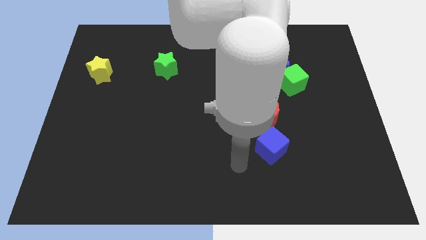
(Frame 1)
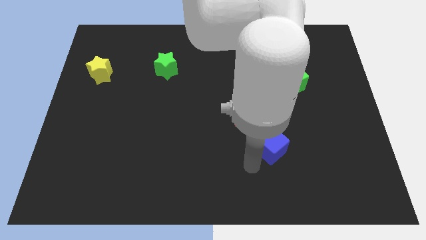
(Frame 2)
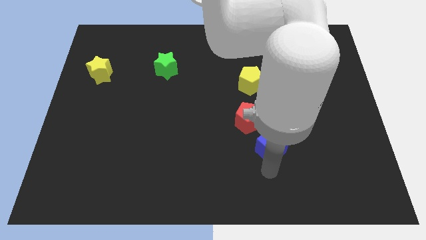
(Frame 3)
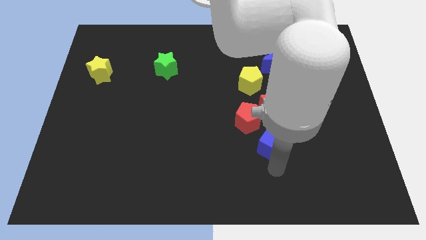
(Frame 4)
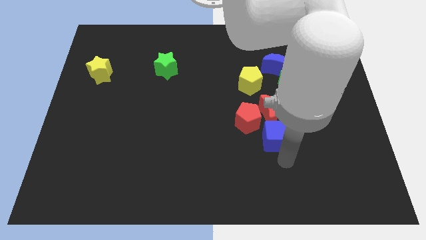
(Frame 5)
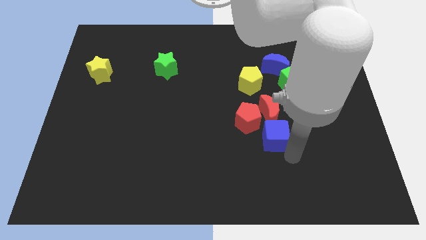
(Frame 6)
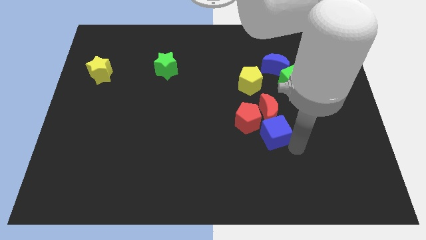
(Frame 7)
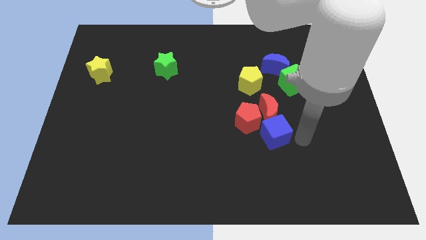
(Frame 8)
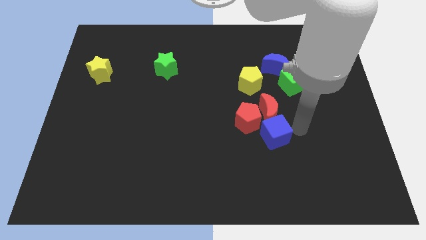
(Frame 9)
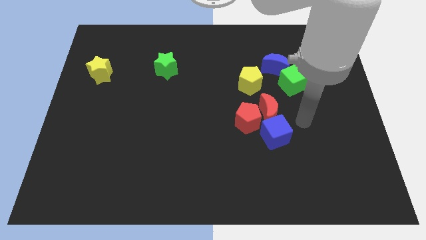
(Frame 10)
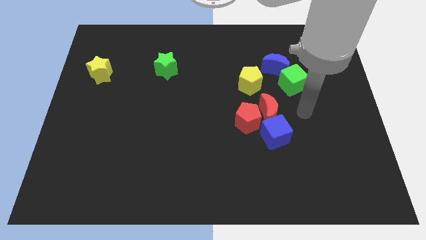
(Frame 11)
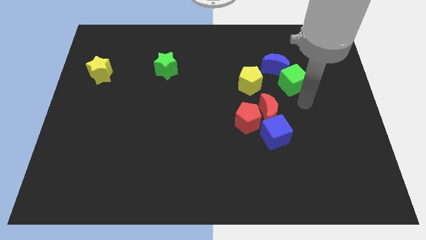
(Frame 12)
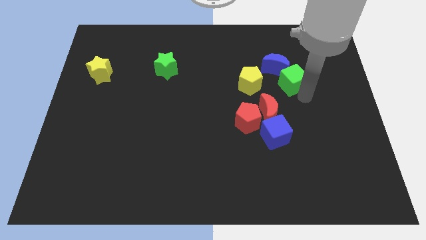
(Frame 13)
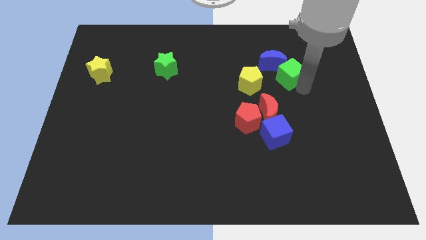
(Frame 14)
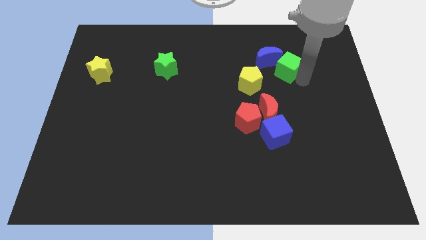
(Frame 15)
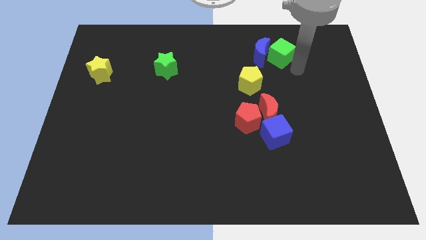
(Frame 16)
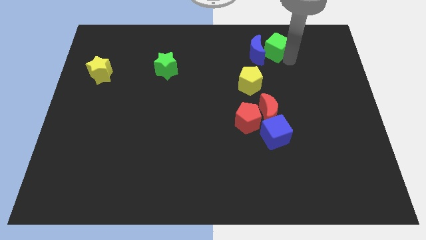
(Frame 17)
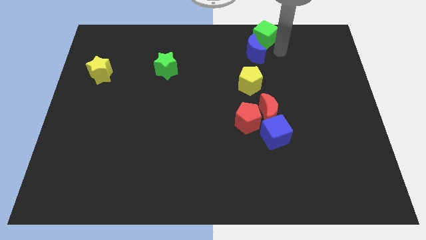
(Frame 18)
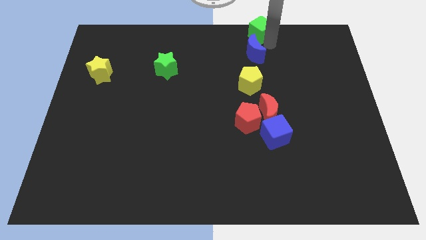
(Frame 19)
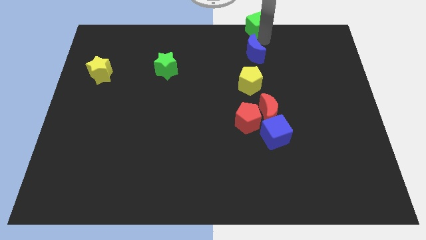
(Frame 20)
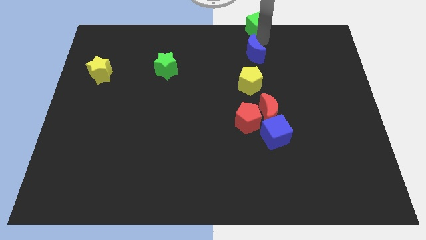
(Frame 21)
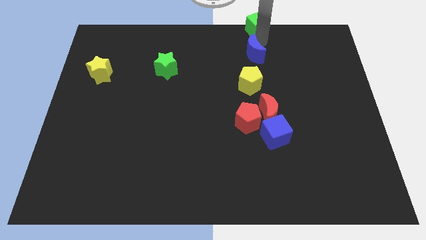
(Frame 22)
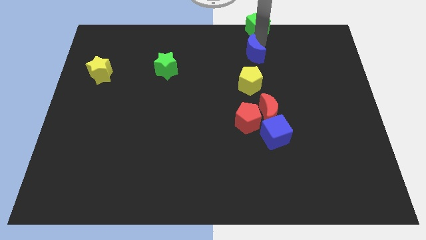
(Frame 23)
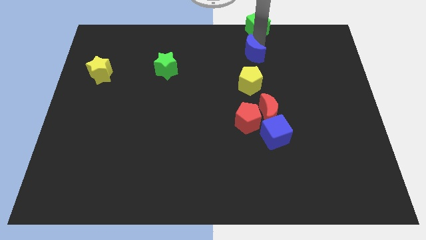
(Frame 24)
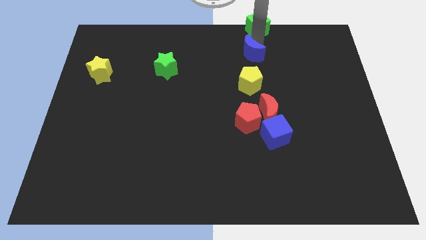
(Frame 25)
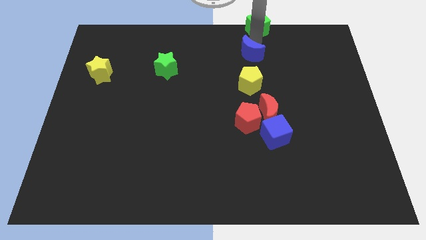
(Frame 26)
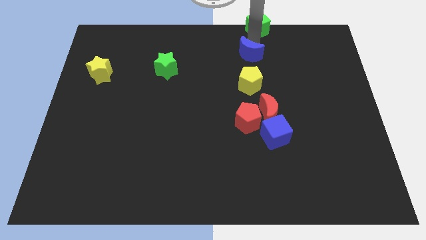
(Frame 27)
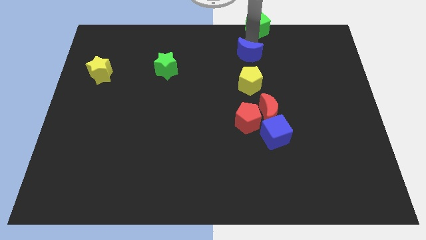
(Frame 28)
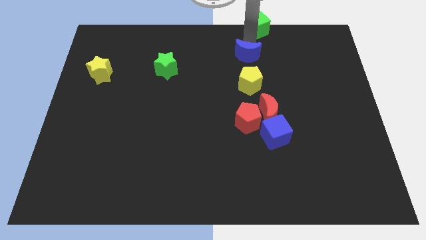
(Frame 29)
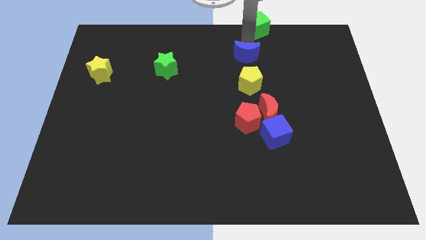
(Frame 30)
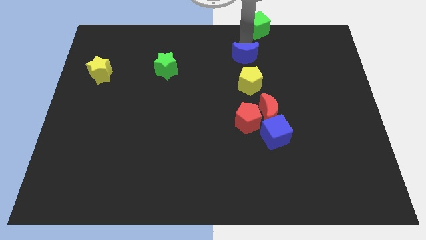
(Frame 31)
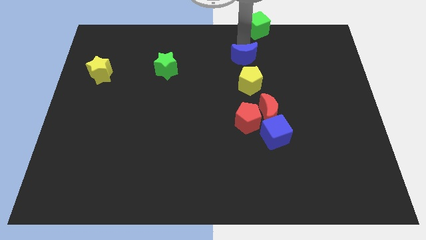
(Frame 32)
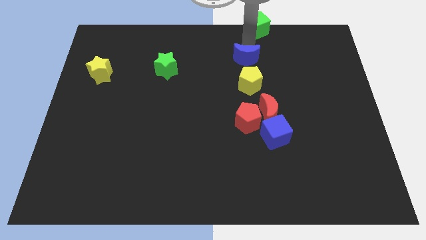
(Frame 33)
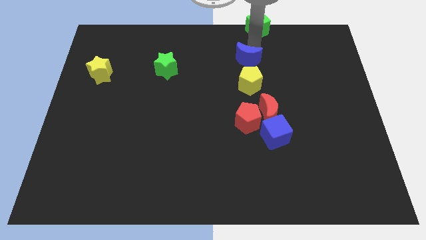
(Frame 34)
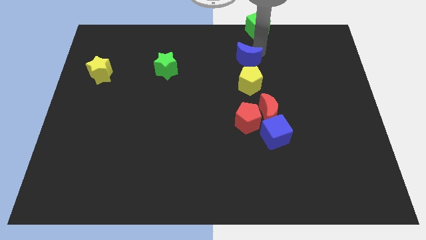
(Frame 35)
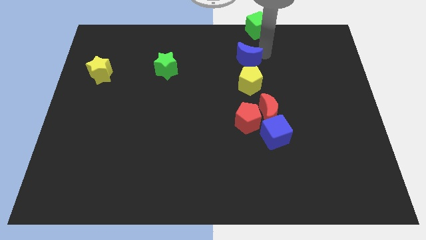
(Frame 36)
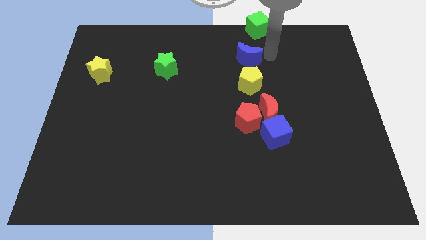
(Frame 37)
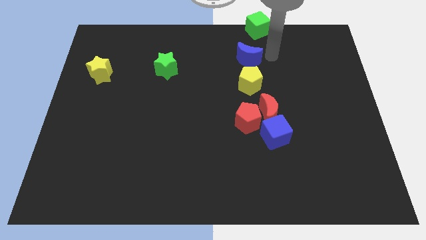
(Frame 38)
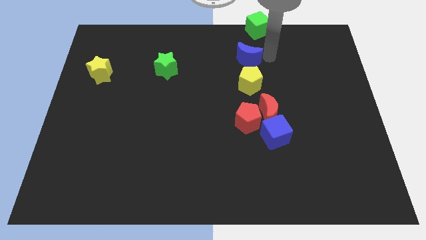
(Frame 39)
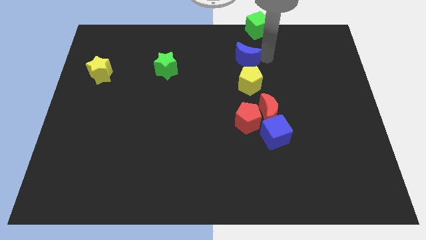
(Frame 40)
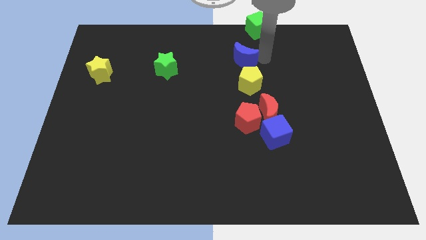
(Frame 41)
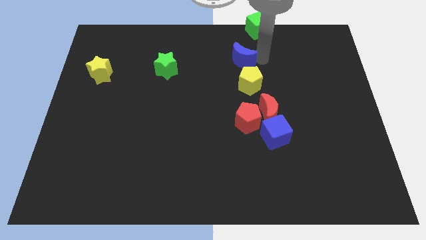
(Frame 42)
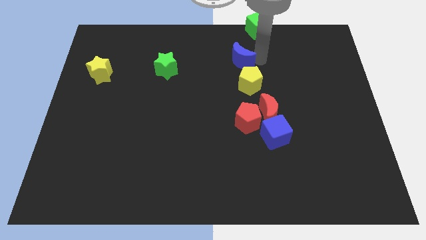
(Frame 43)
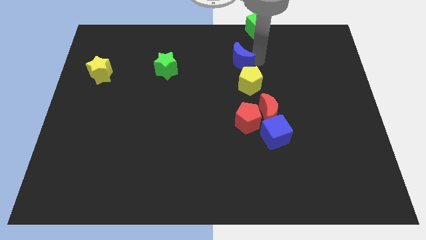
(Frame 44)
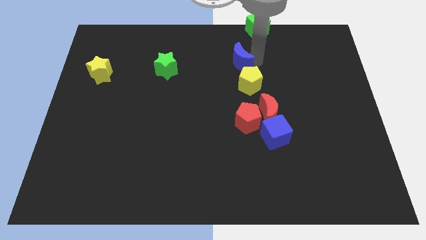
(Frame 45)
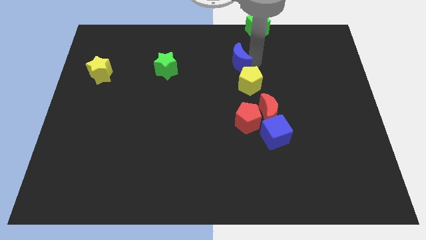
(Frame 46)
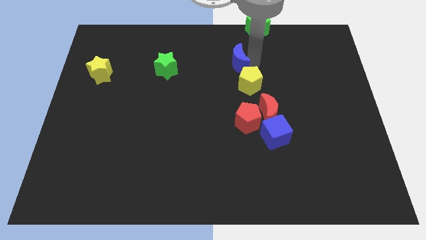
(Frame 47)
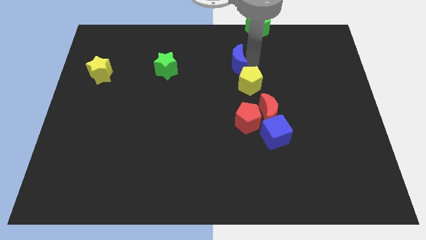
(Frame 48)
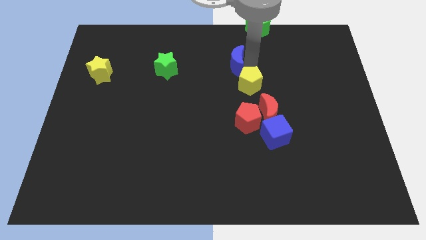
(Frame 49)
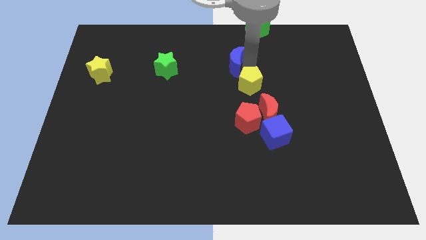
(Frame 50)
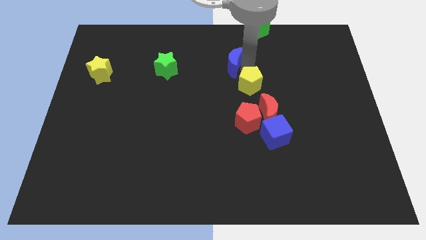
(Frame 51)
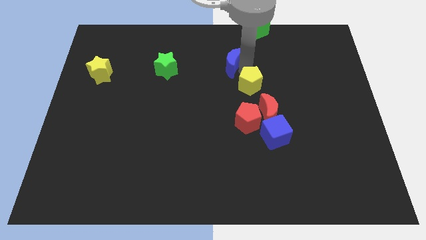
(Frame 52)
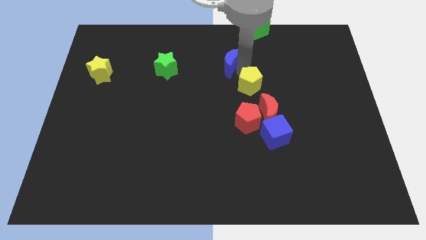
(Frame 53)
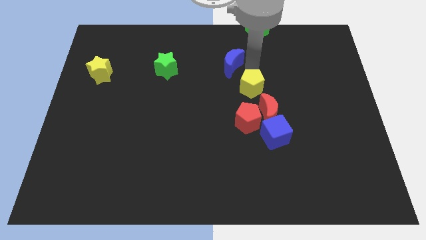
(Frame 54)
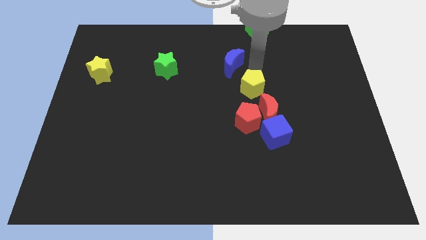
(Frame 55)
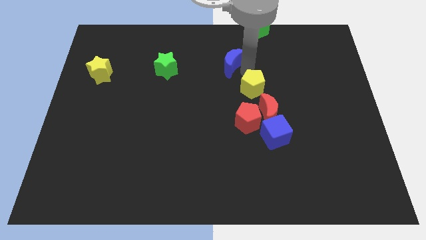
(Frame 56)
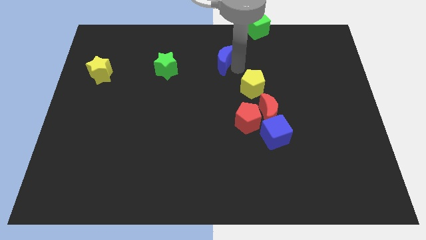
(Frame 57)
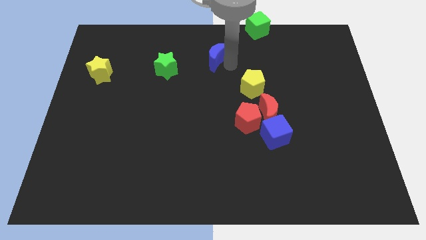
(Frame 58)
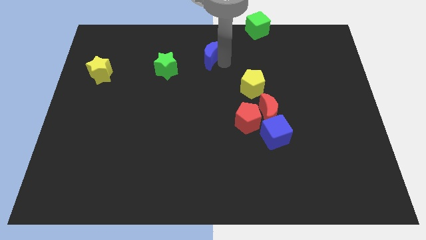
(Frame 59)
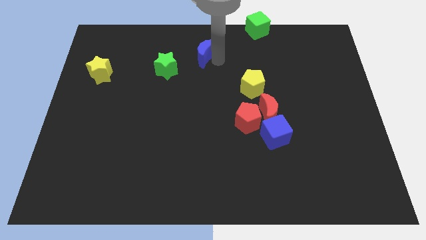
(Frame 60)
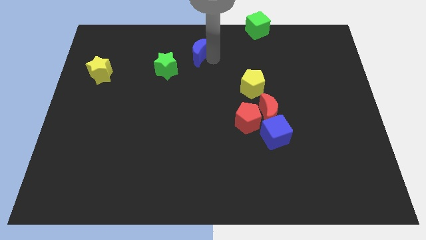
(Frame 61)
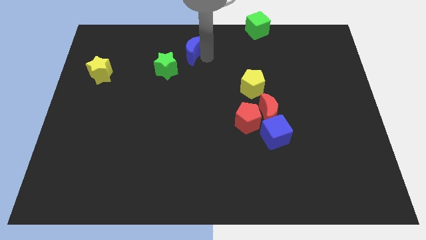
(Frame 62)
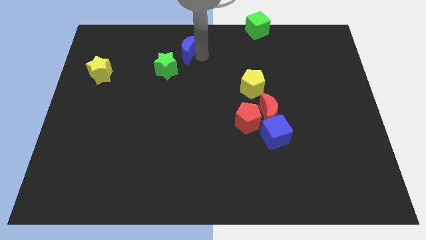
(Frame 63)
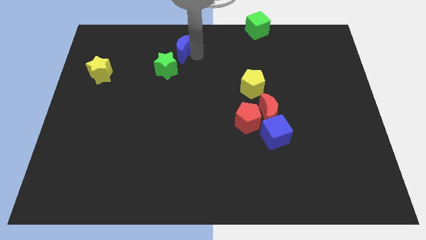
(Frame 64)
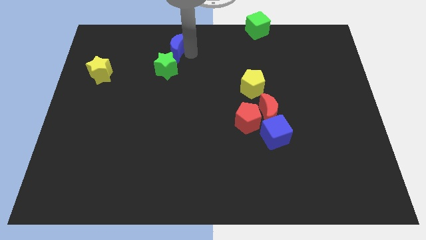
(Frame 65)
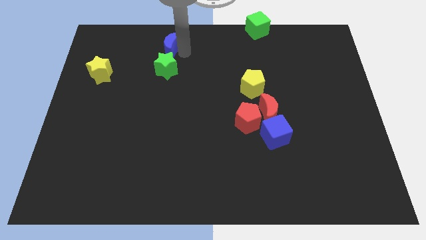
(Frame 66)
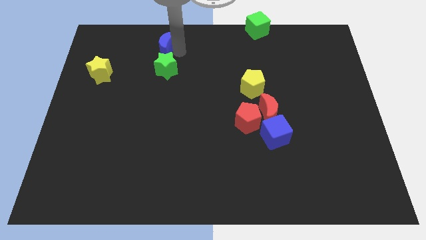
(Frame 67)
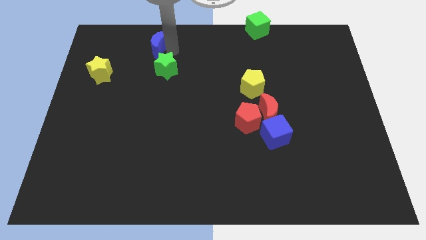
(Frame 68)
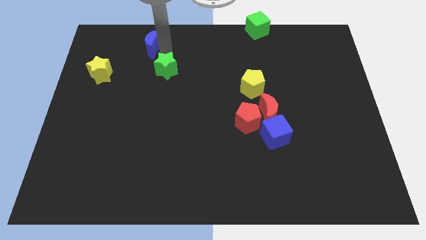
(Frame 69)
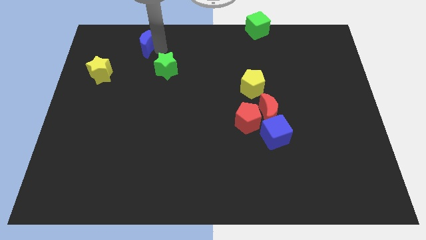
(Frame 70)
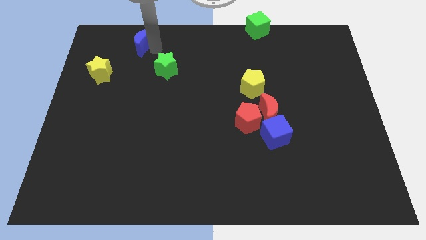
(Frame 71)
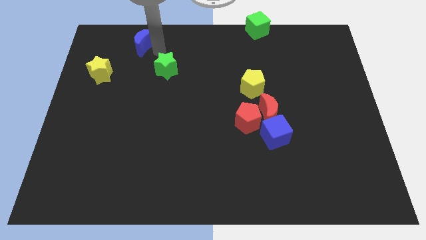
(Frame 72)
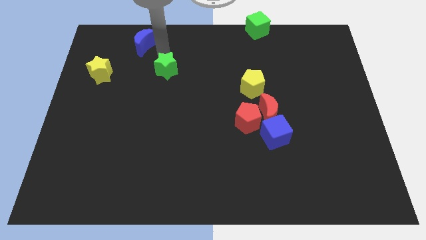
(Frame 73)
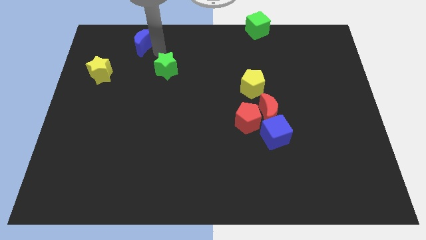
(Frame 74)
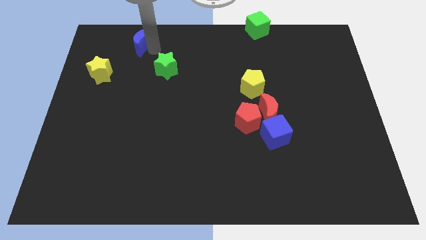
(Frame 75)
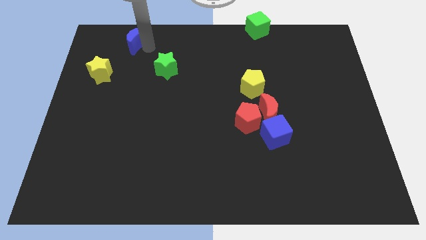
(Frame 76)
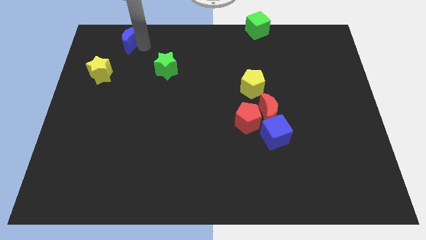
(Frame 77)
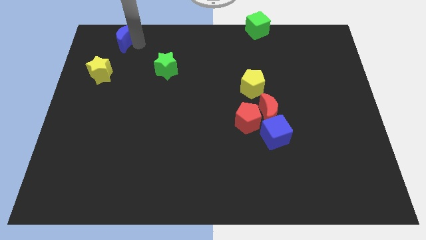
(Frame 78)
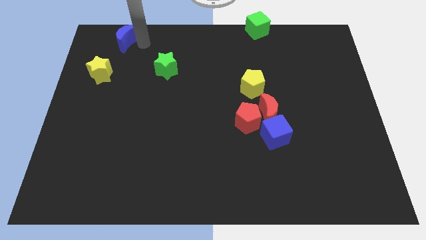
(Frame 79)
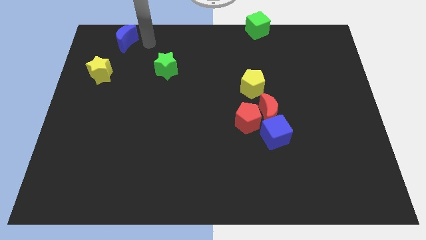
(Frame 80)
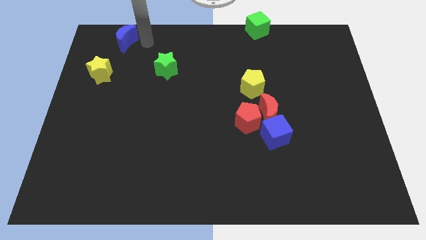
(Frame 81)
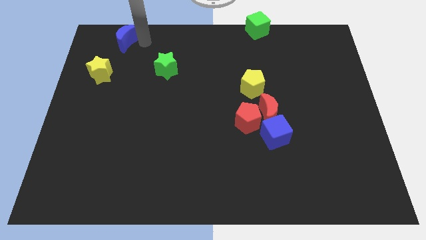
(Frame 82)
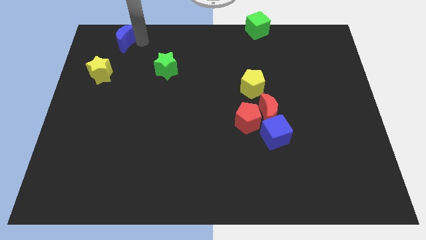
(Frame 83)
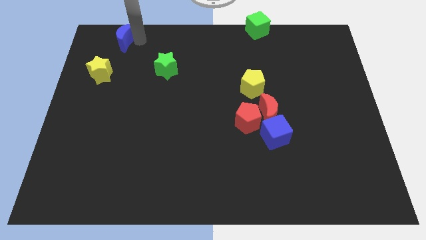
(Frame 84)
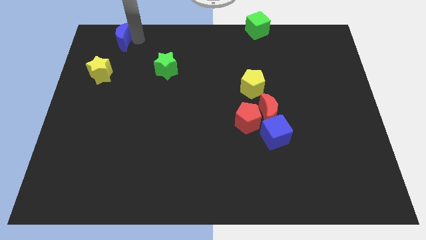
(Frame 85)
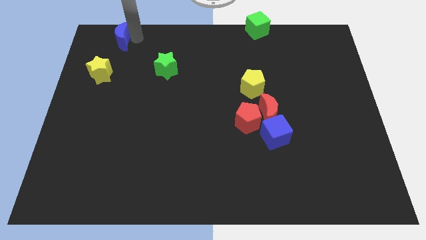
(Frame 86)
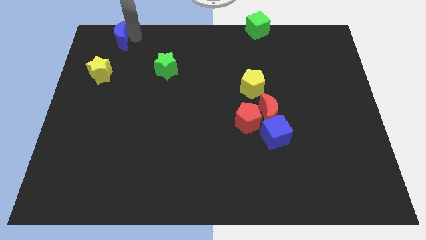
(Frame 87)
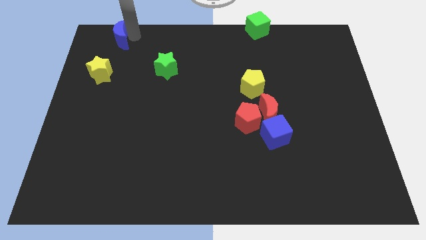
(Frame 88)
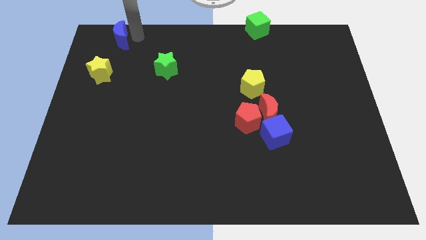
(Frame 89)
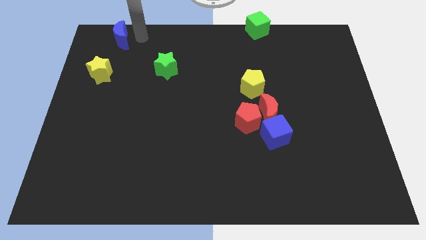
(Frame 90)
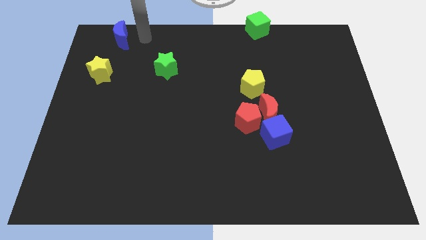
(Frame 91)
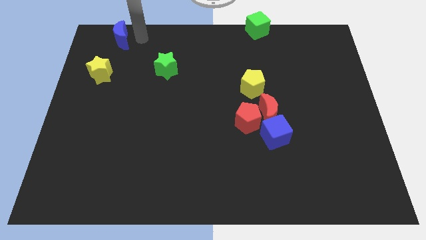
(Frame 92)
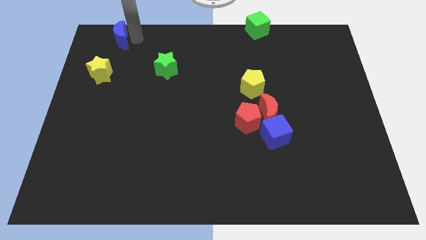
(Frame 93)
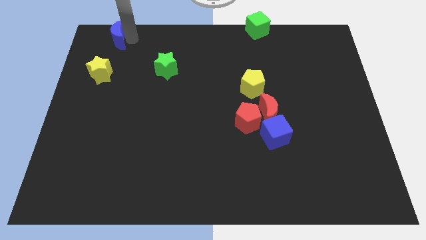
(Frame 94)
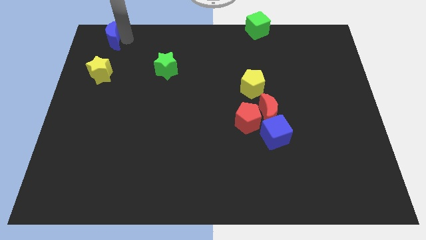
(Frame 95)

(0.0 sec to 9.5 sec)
slide the blue moon to the upper left corner
